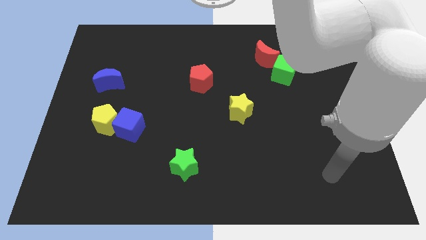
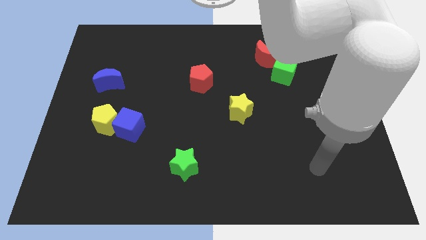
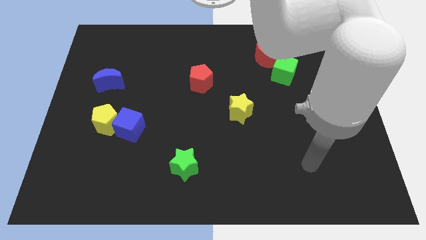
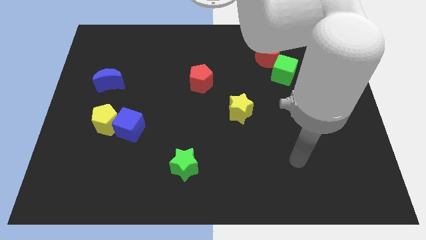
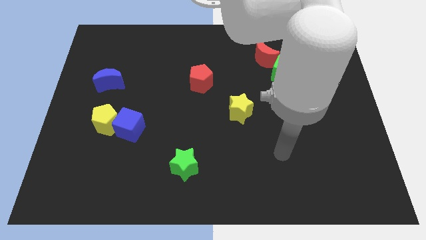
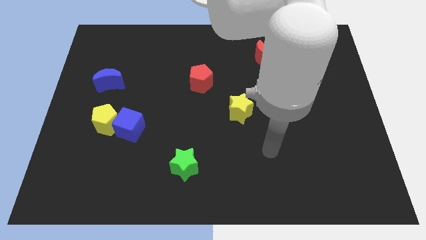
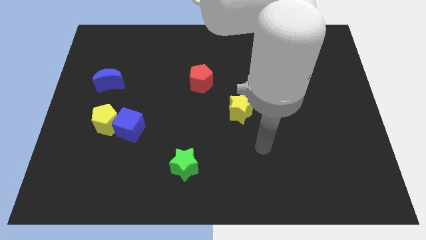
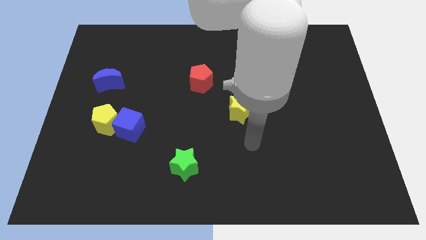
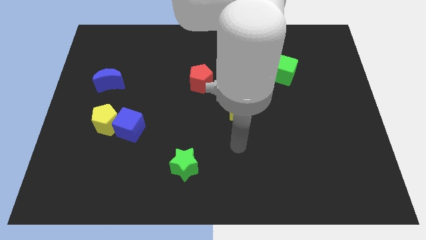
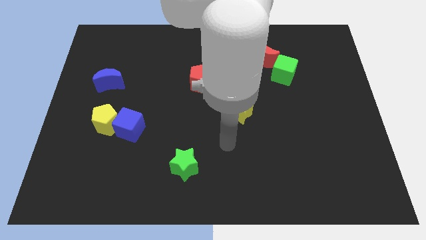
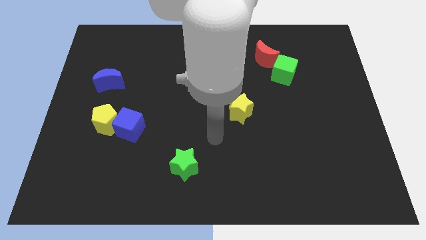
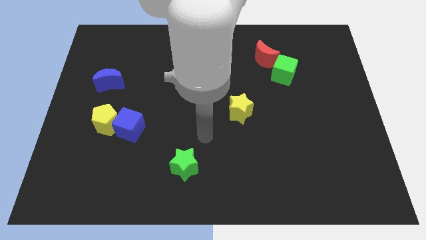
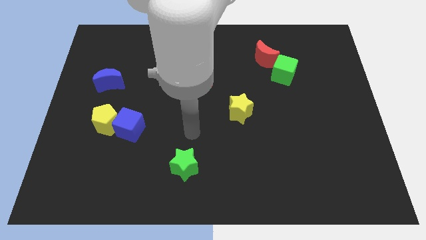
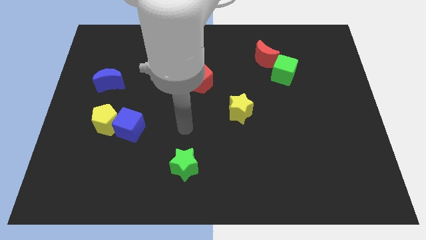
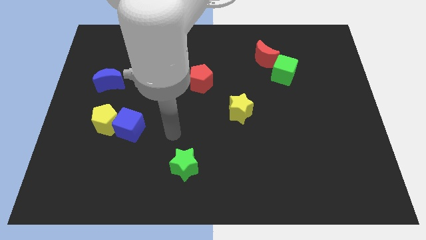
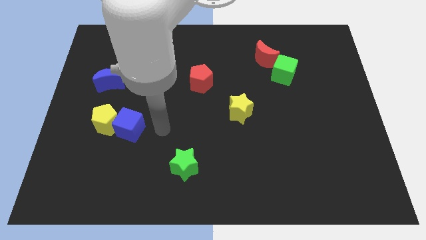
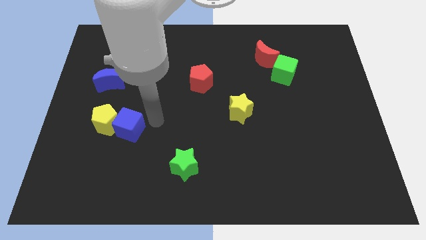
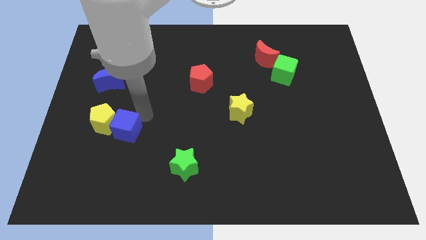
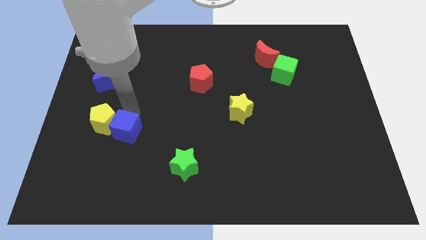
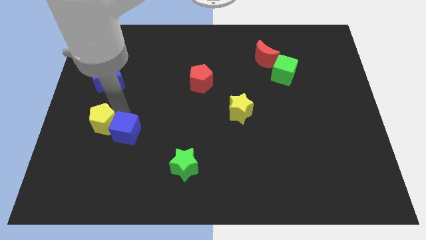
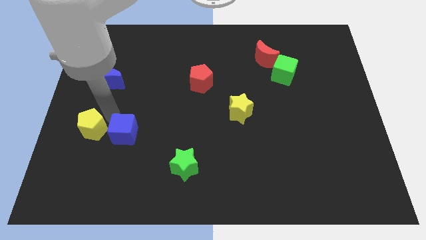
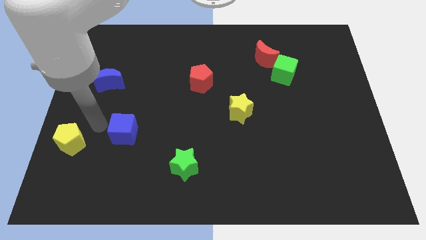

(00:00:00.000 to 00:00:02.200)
pull the blue cube apart from the yellow pentagon

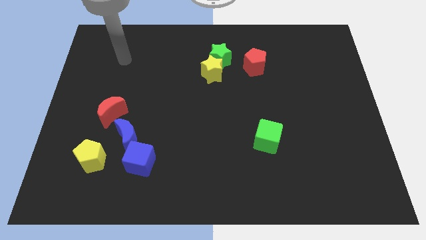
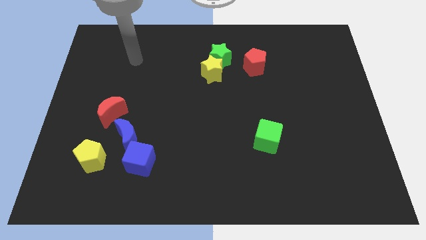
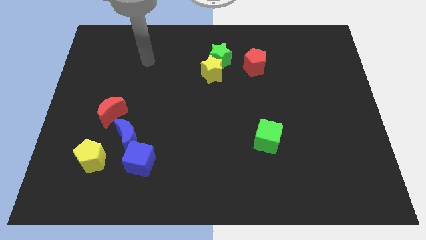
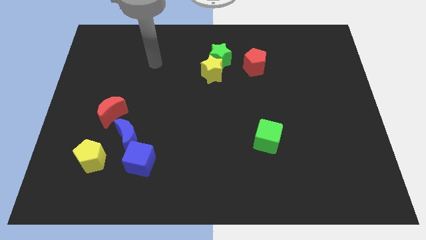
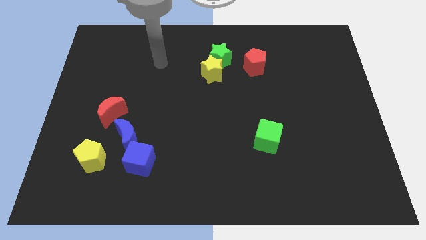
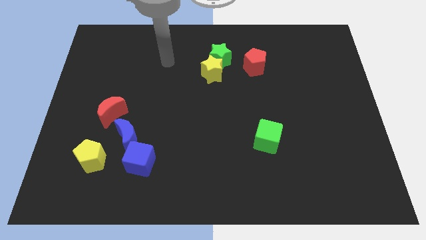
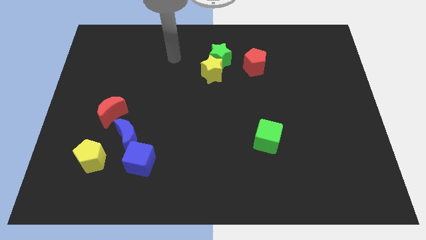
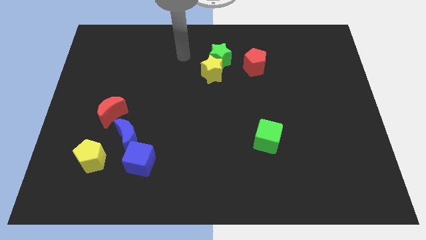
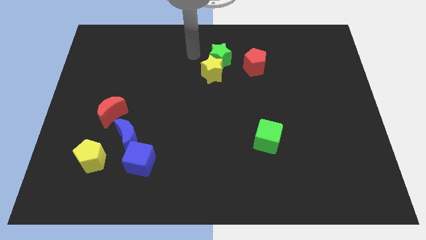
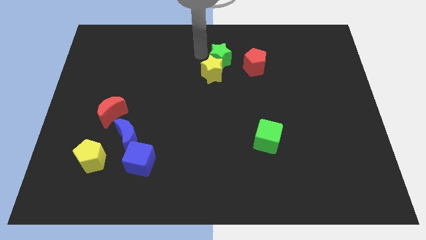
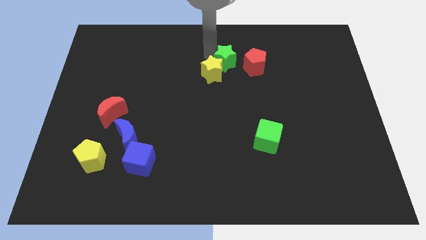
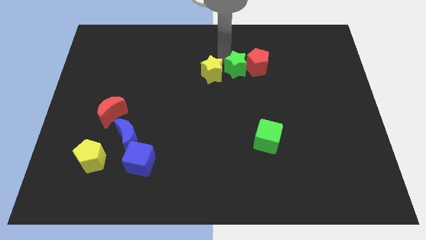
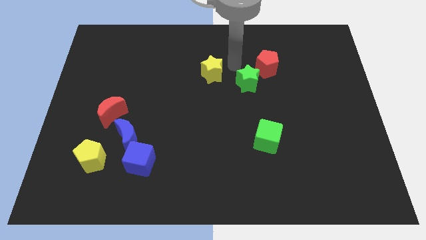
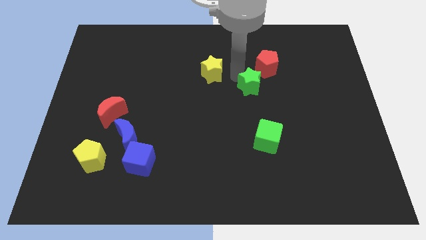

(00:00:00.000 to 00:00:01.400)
move the yellow star away from the green star

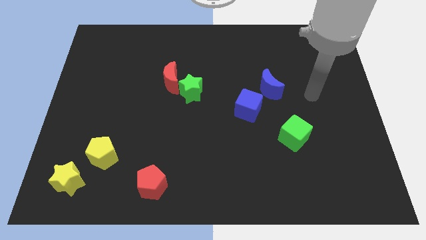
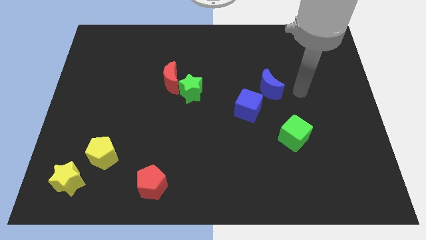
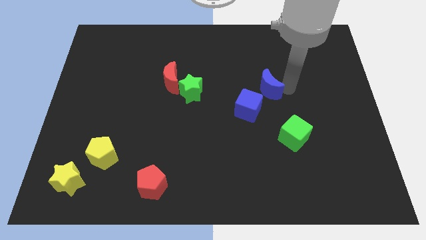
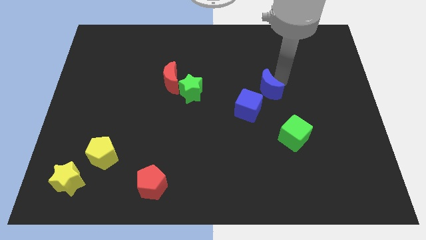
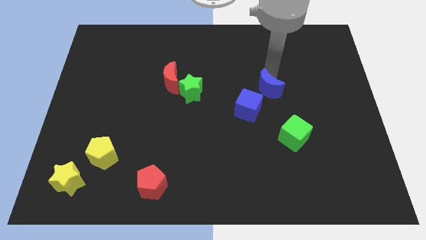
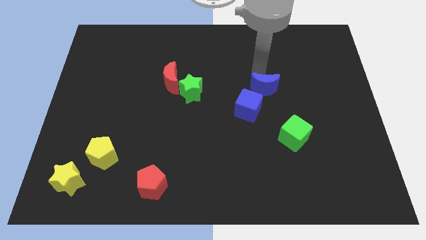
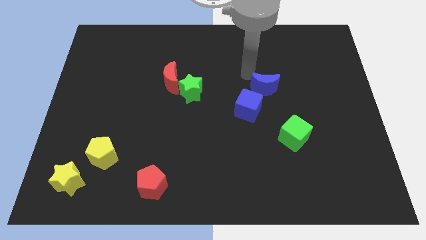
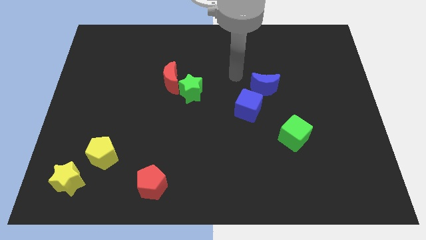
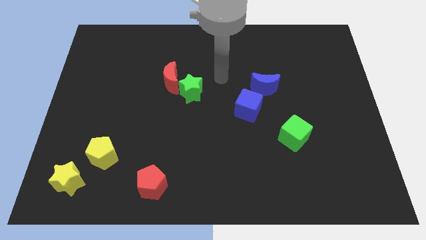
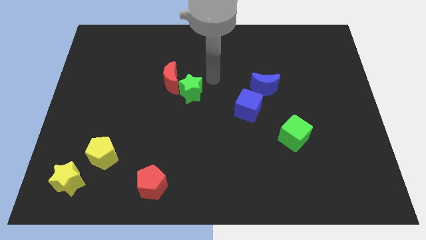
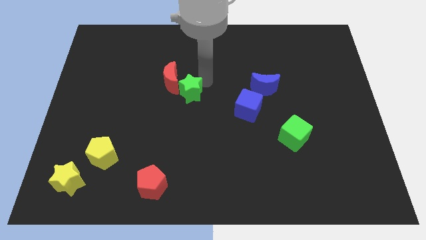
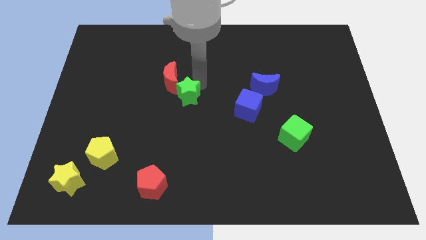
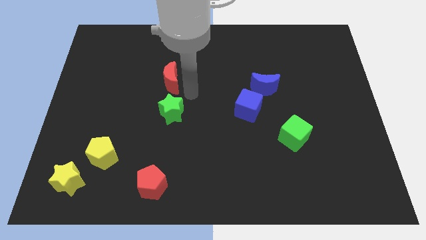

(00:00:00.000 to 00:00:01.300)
separate the red moon from the green star

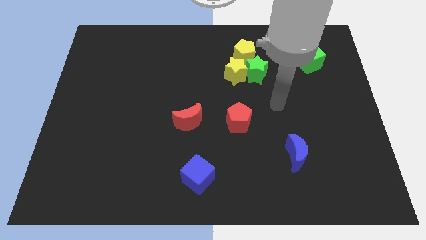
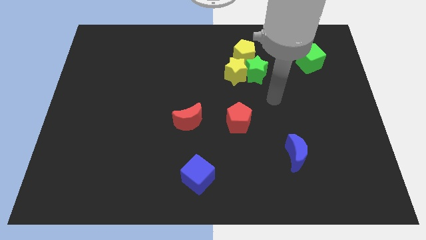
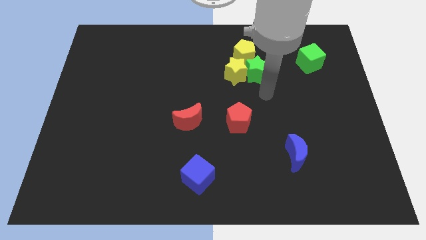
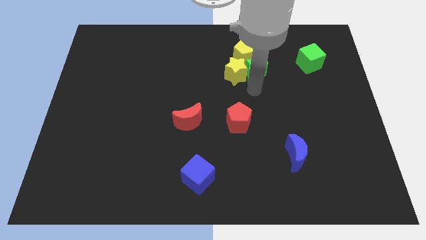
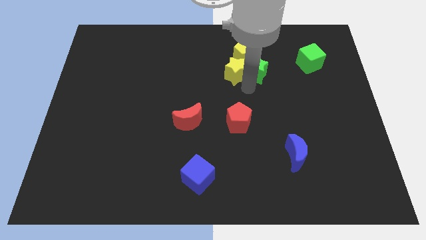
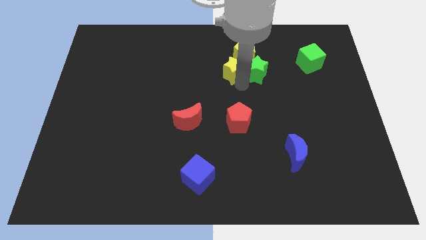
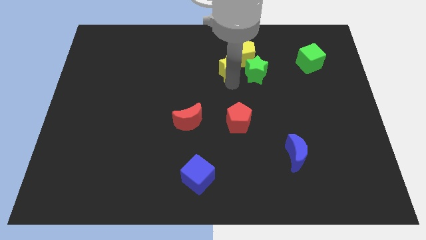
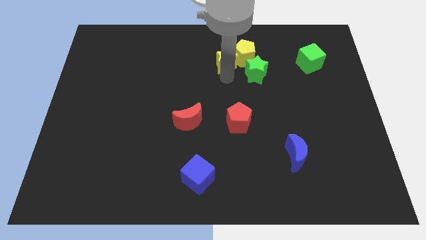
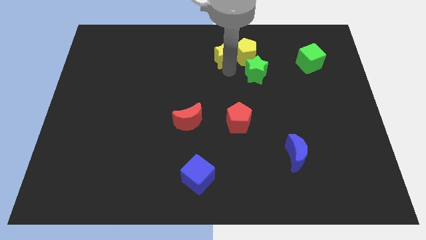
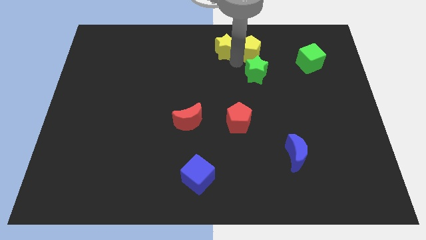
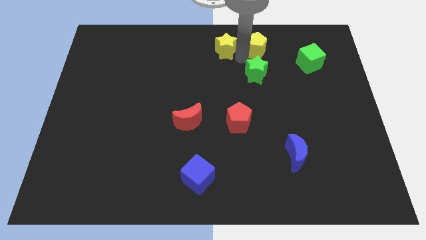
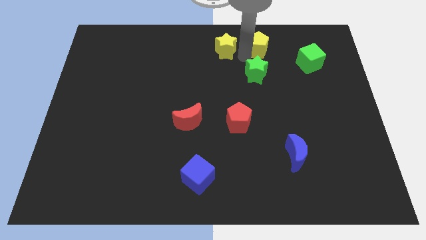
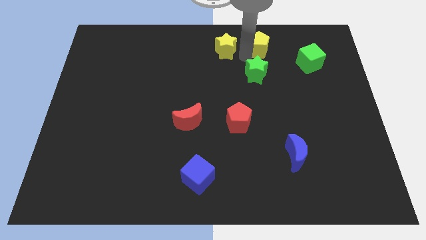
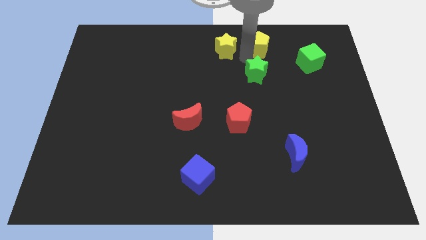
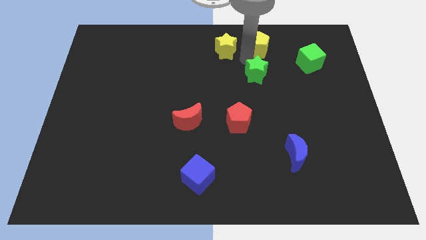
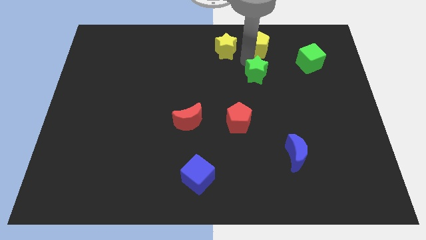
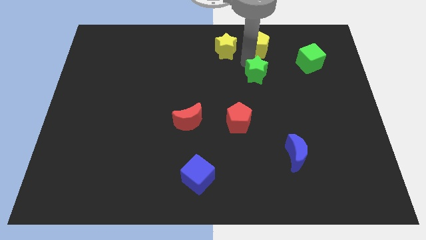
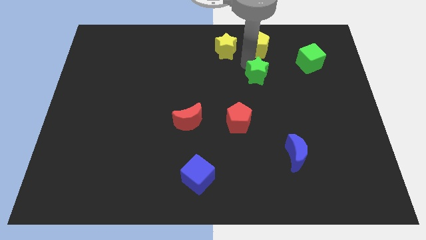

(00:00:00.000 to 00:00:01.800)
pull the green star apart from the yellow star and yellow pentagon

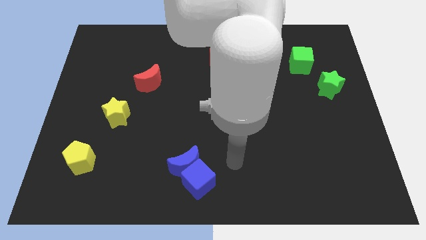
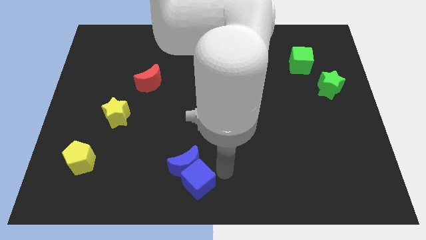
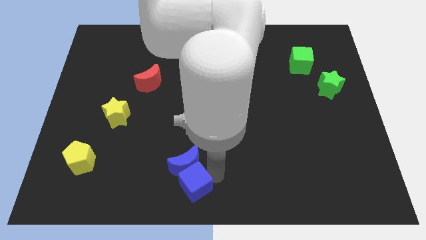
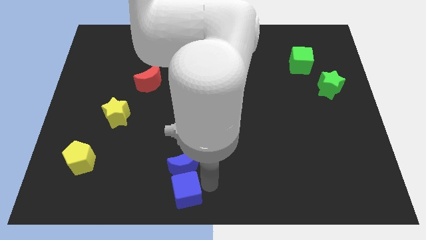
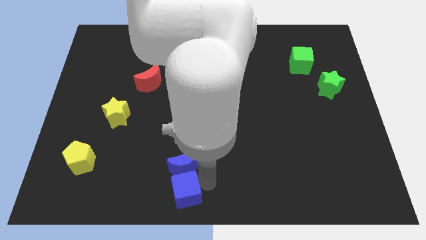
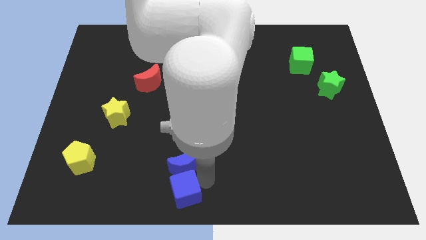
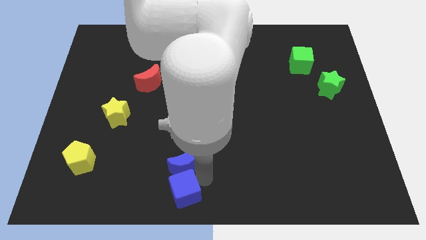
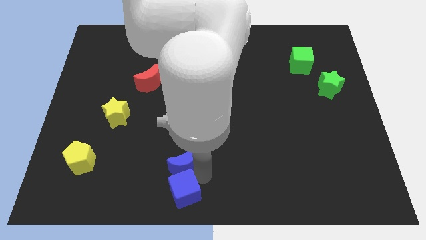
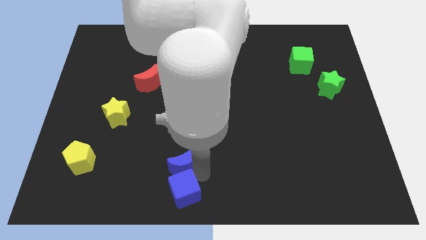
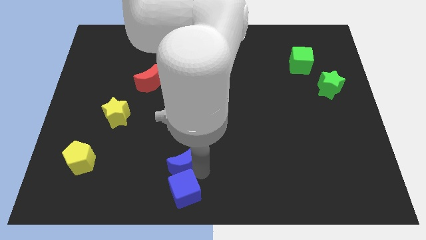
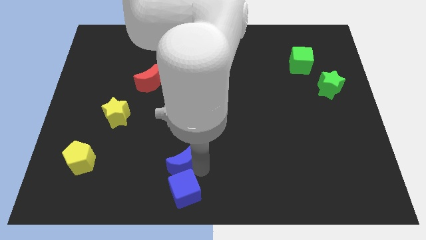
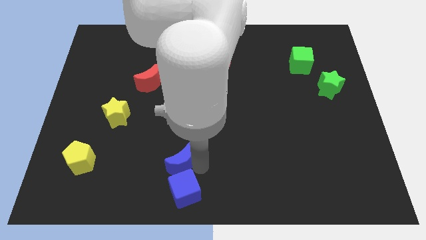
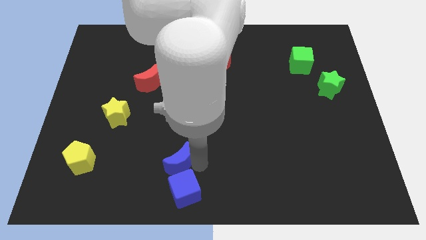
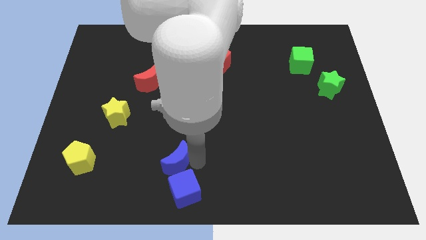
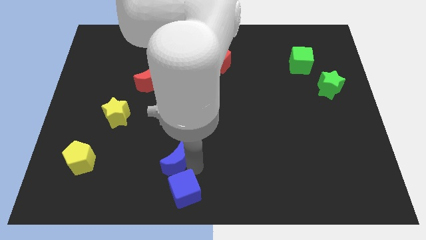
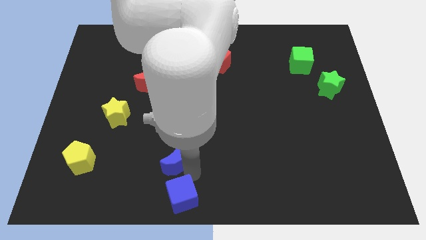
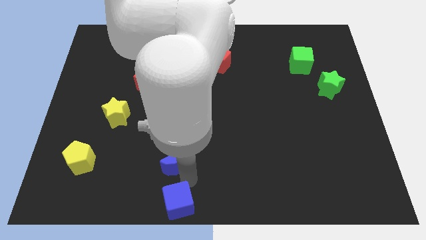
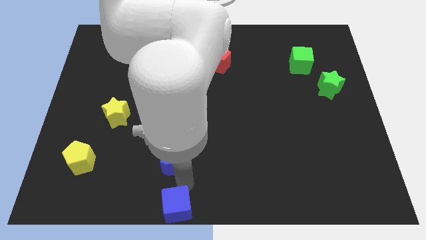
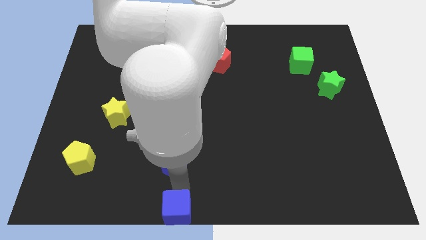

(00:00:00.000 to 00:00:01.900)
separate the blue moon from the blue cube

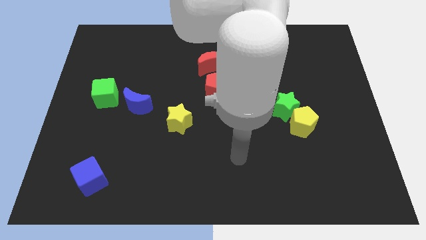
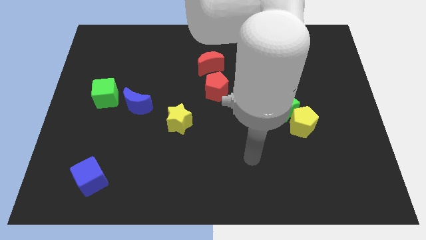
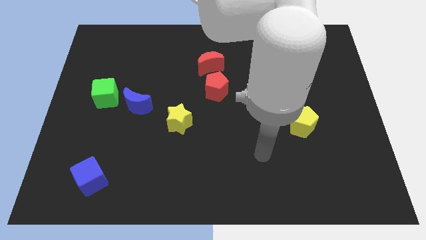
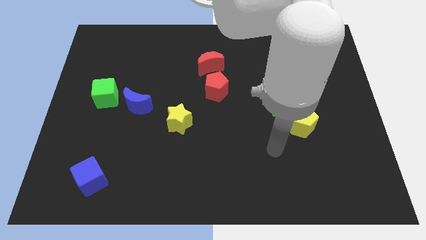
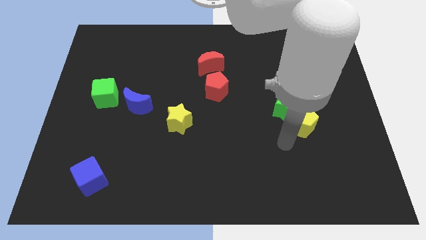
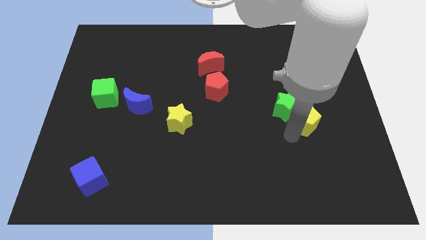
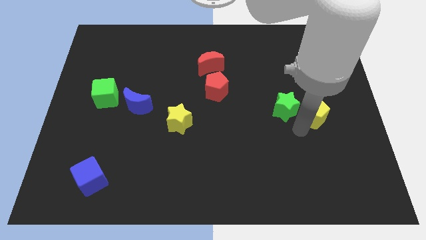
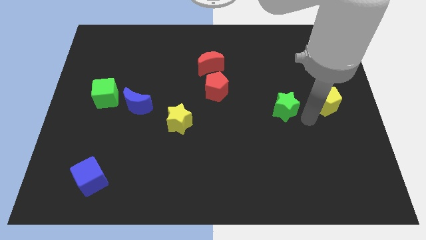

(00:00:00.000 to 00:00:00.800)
separate the green star from the yellow pentagon
